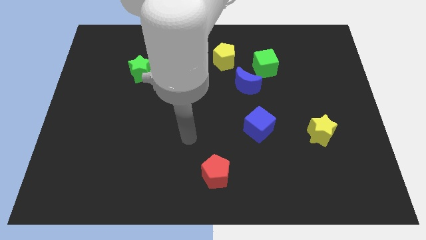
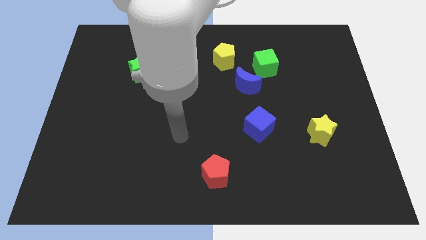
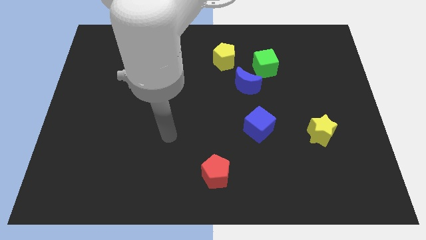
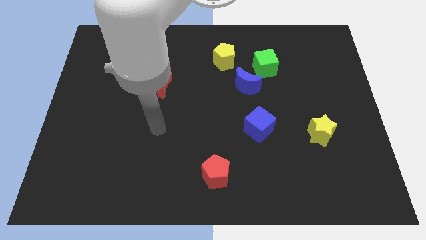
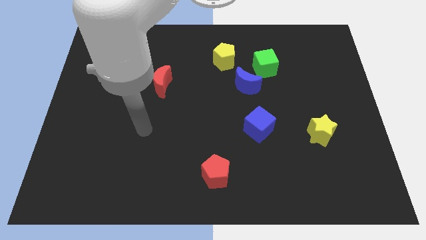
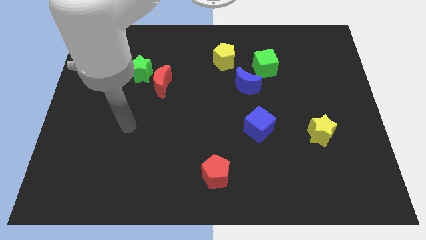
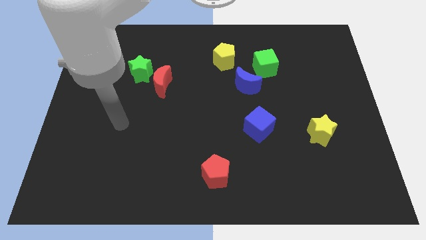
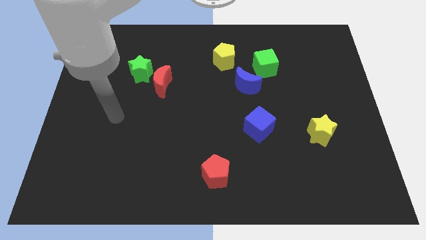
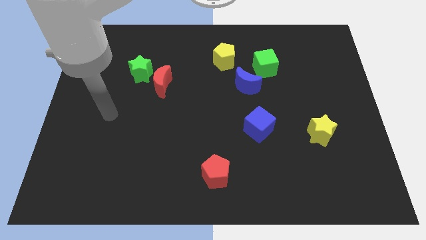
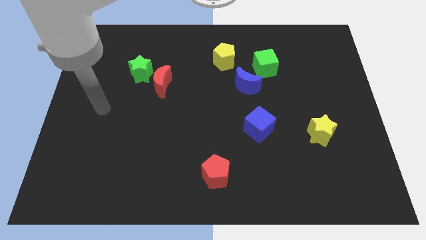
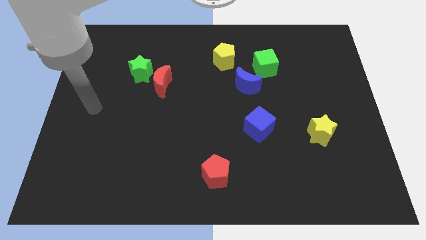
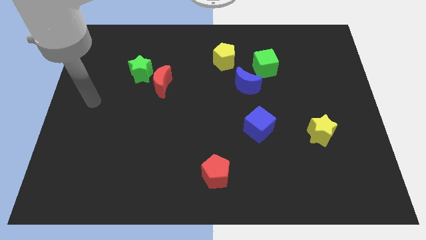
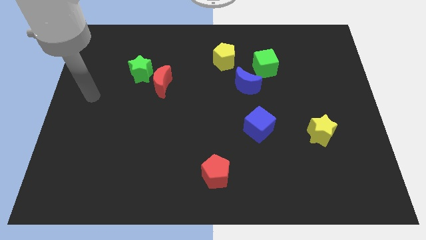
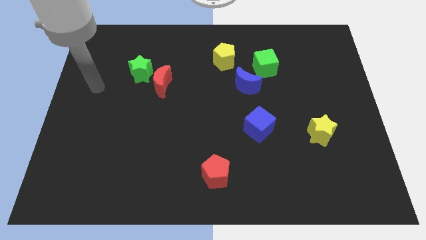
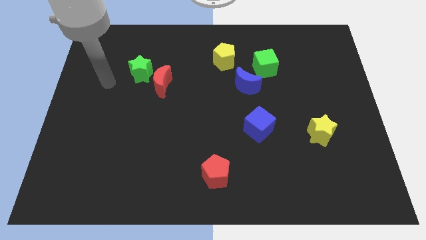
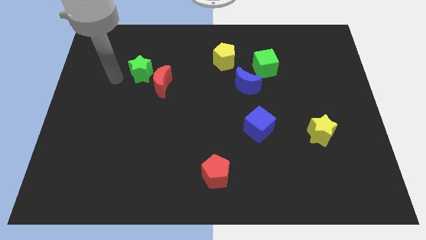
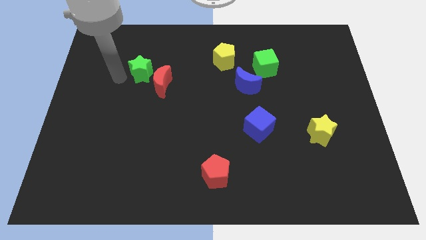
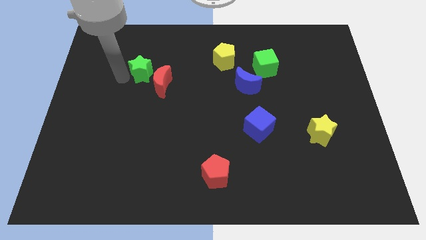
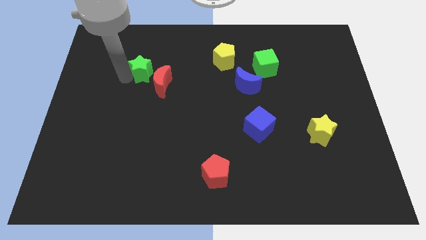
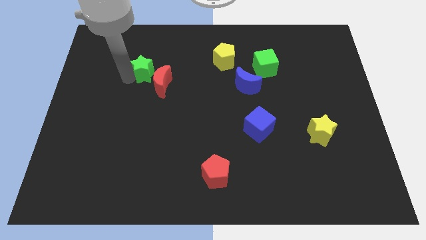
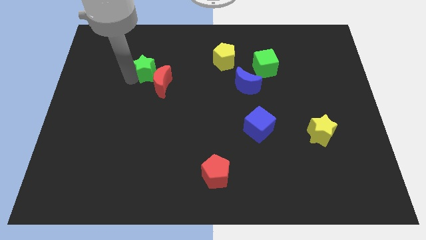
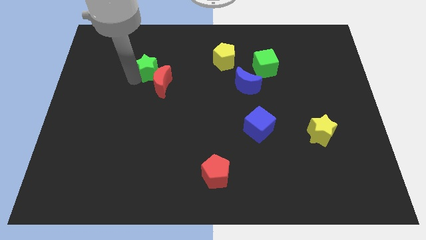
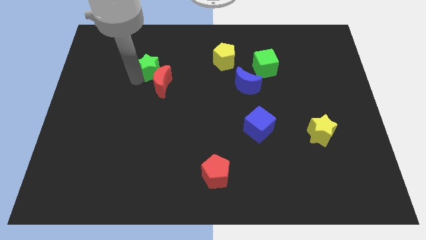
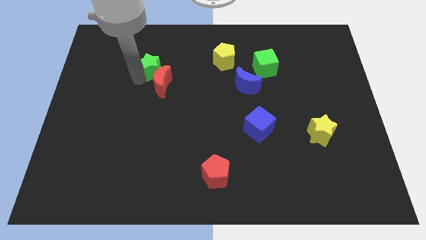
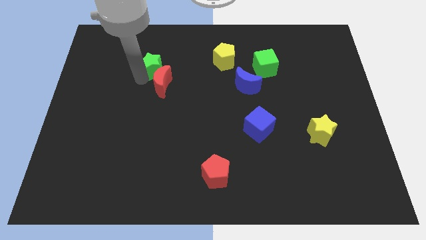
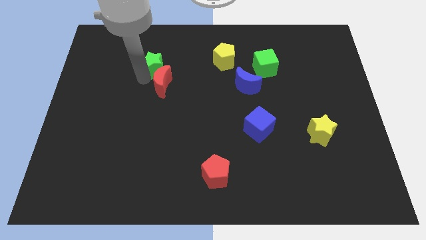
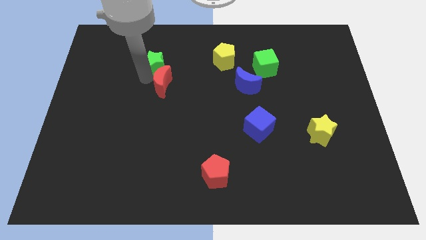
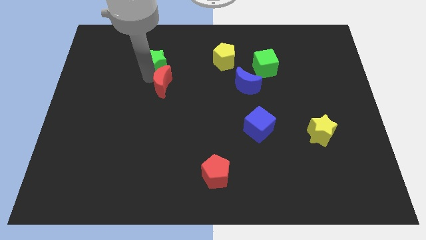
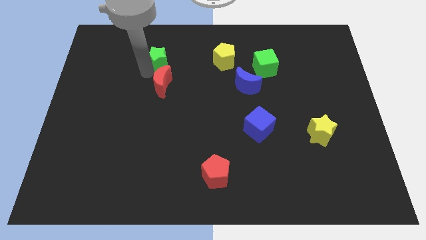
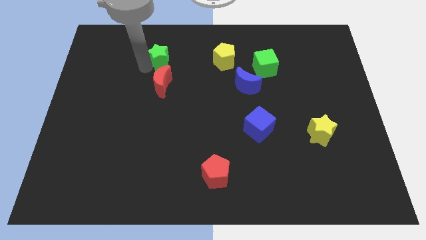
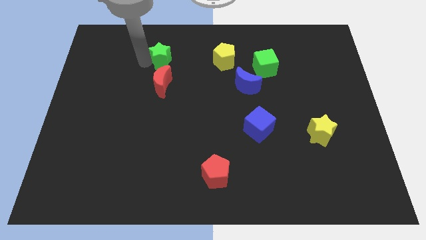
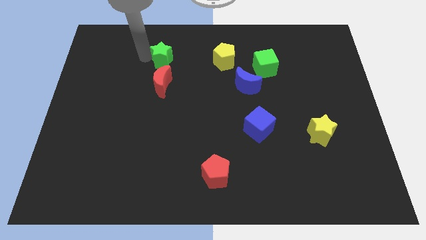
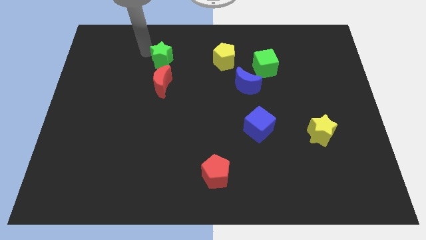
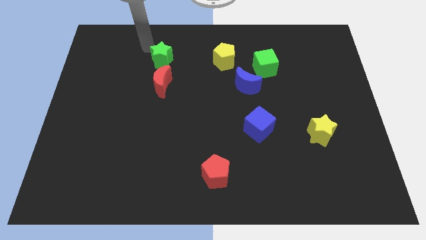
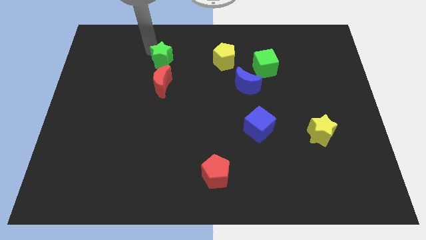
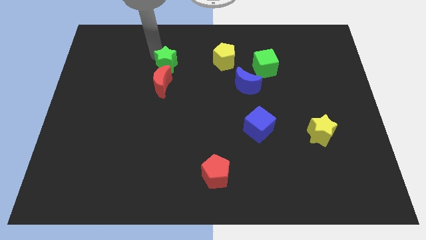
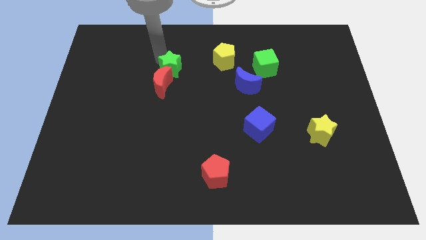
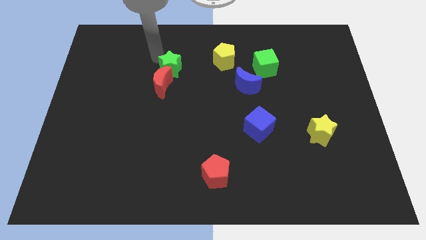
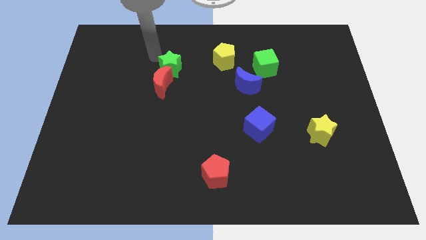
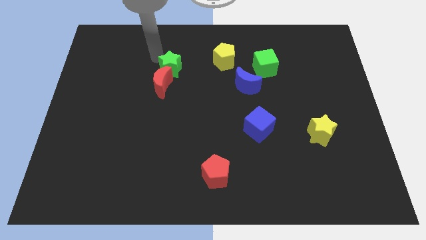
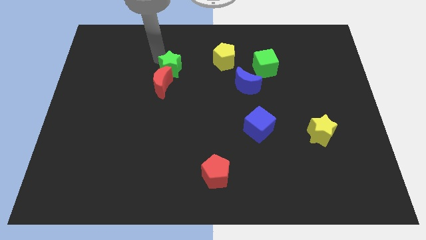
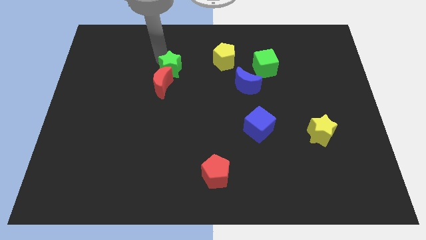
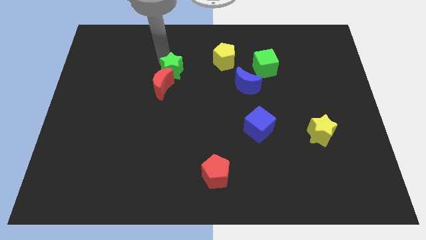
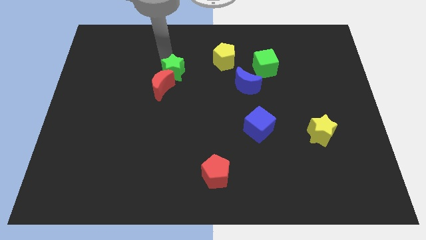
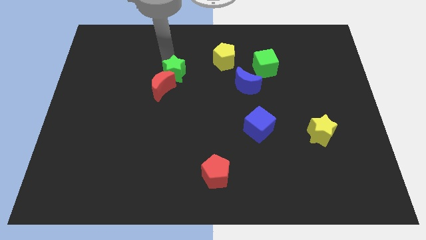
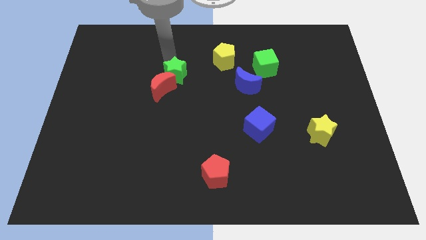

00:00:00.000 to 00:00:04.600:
move the green star to the middle

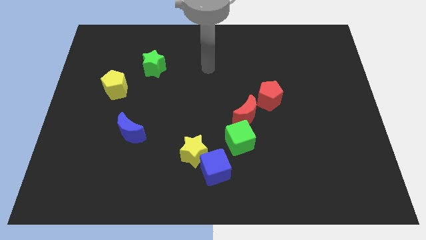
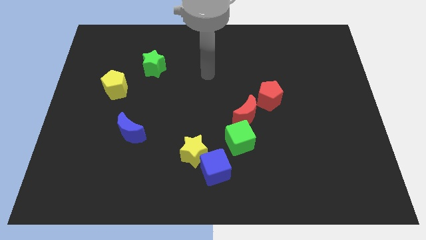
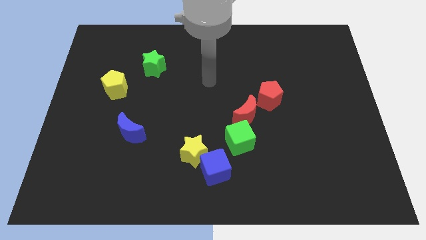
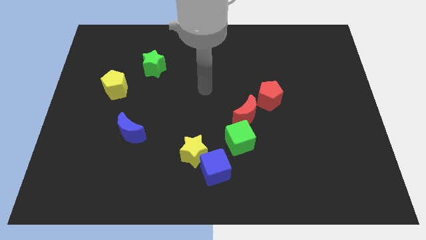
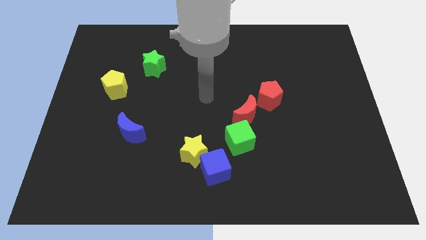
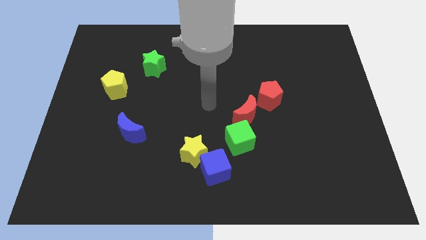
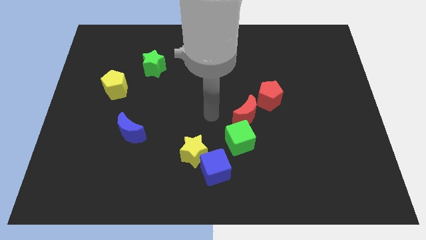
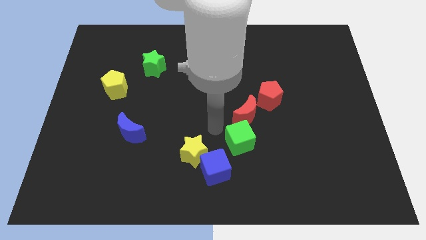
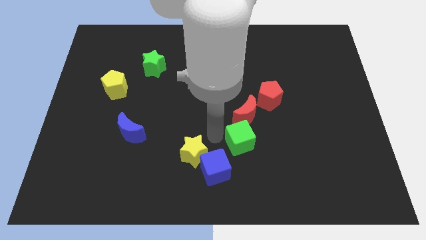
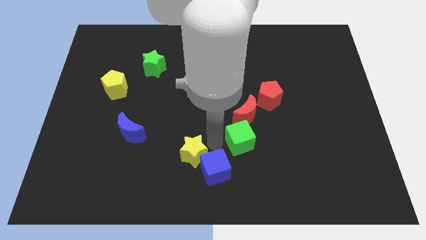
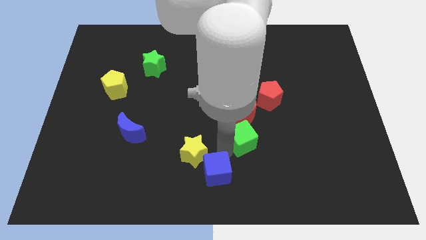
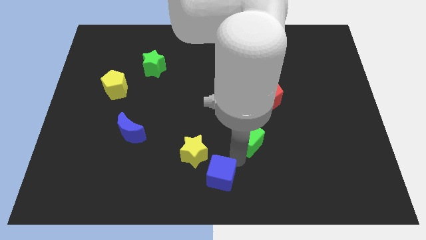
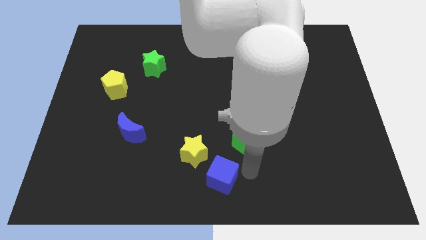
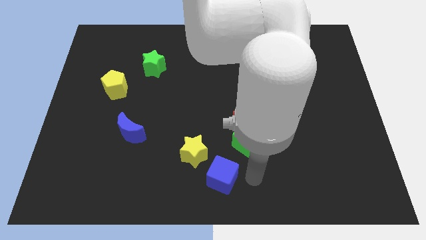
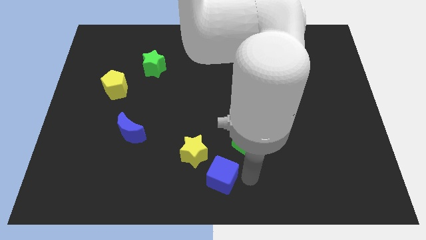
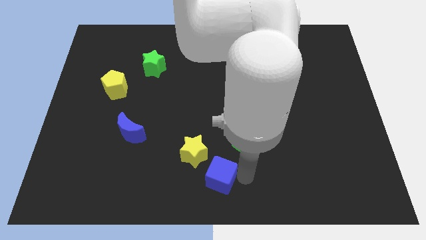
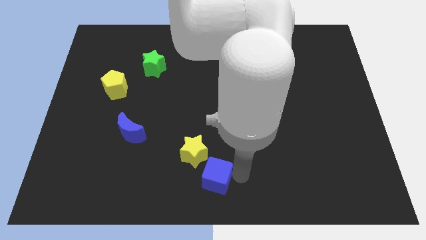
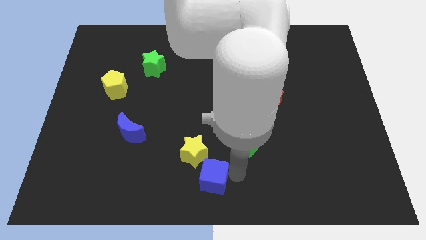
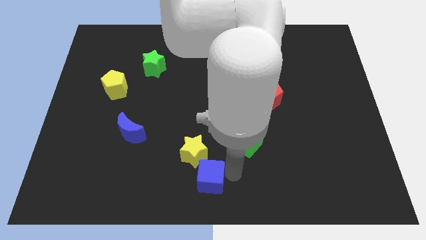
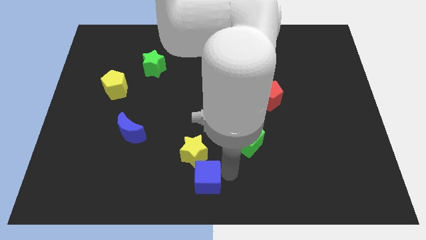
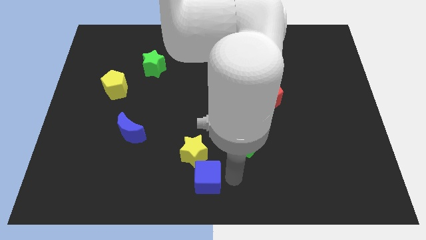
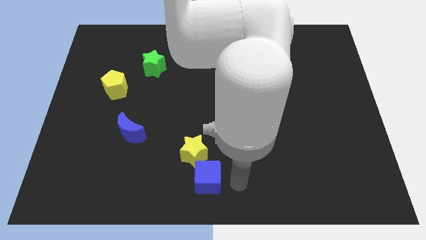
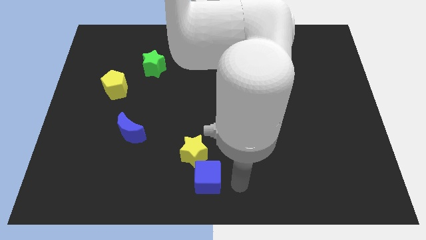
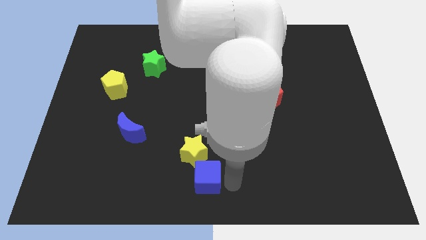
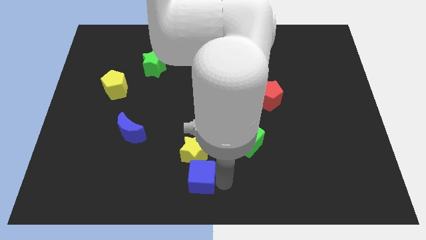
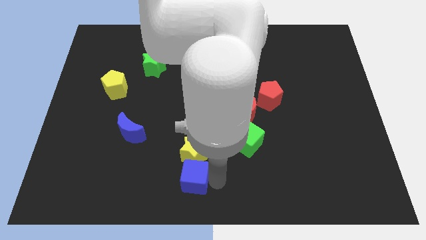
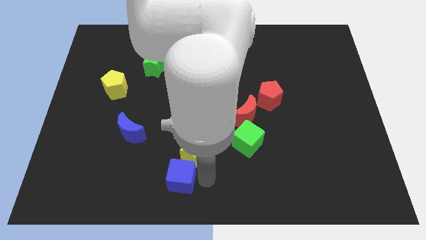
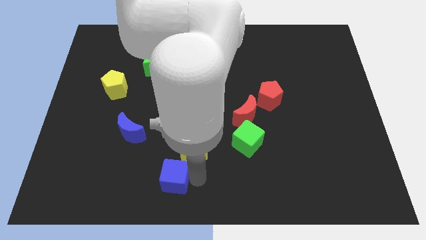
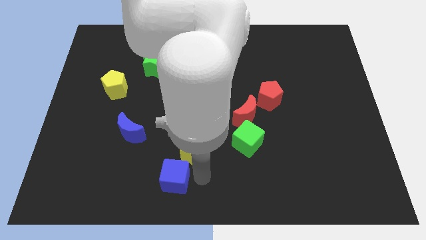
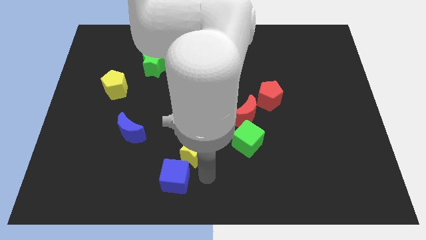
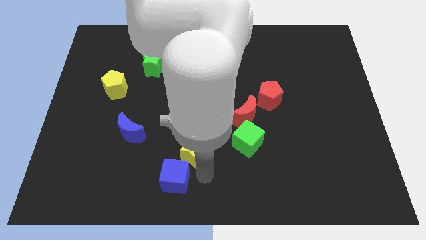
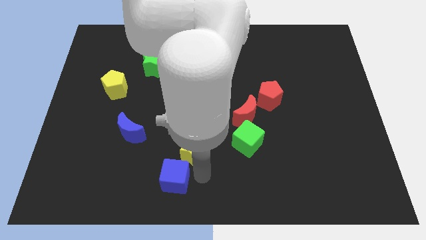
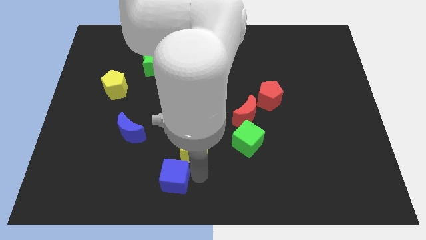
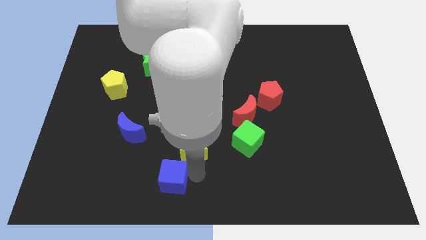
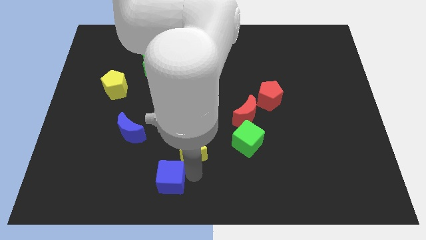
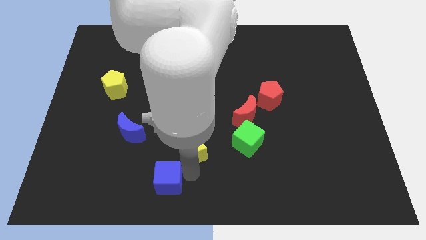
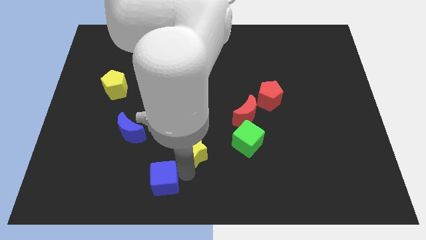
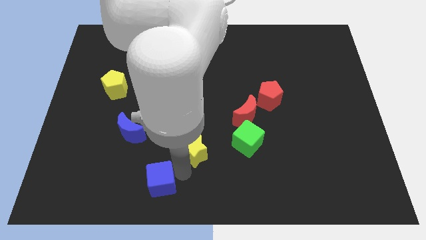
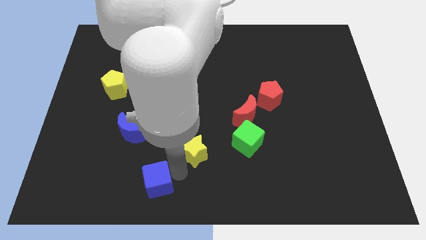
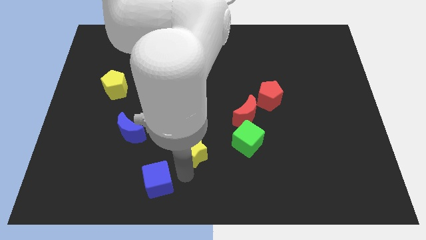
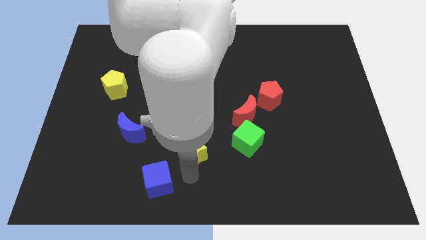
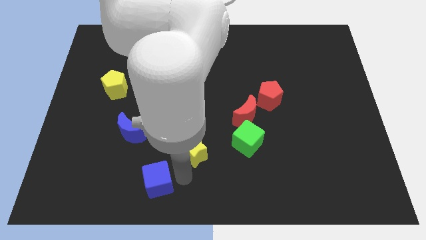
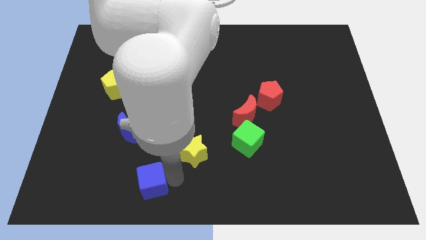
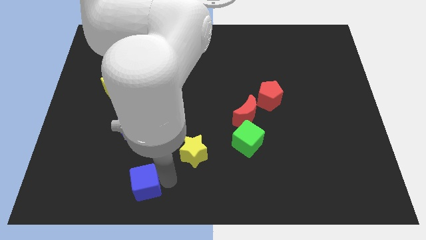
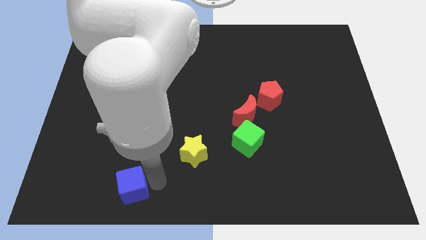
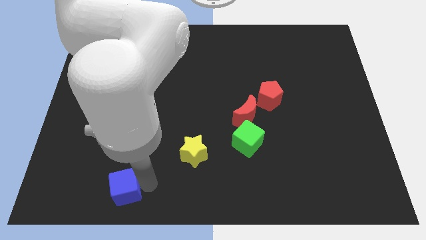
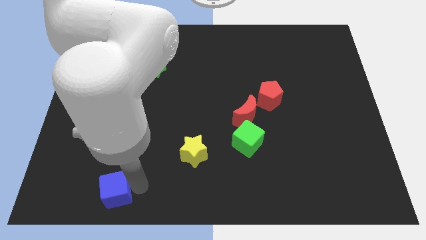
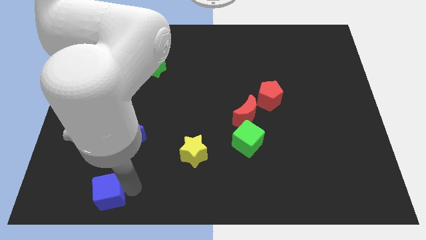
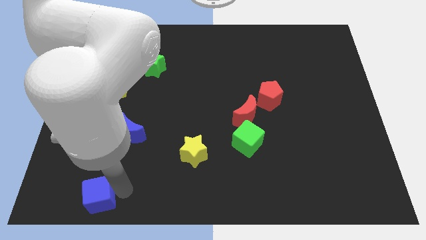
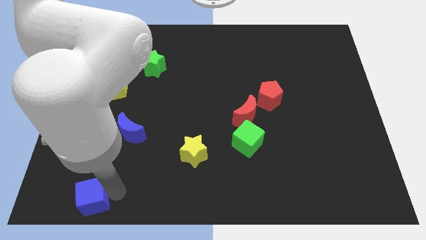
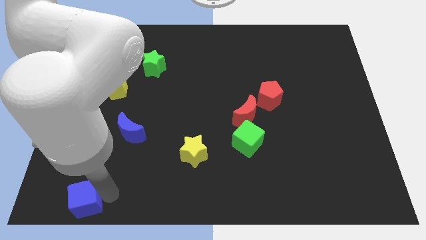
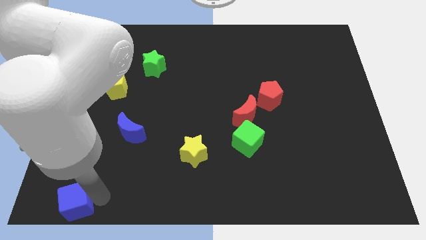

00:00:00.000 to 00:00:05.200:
move the blue cube to the bottom left corner
